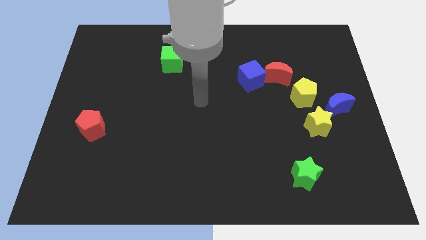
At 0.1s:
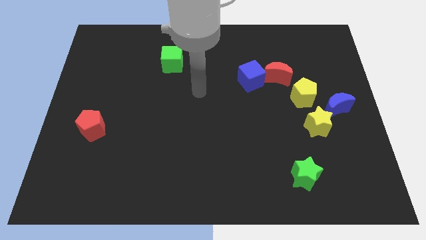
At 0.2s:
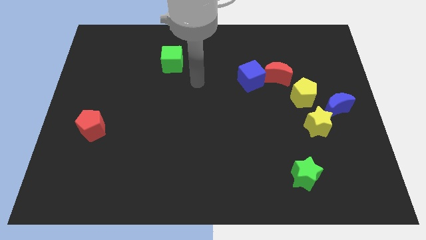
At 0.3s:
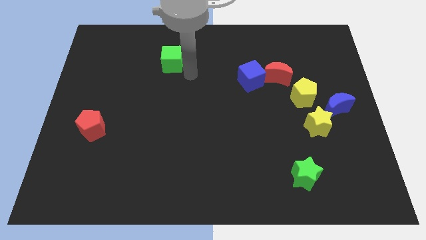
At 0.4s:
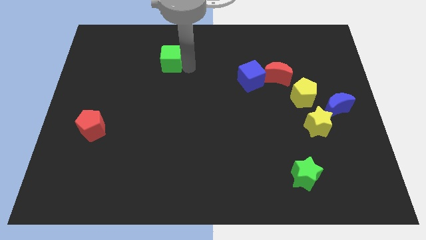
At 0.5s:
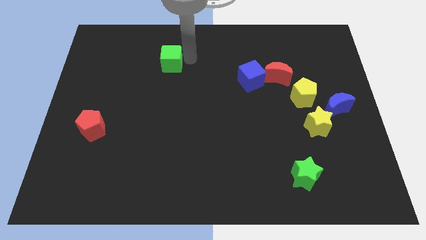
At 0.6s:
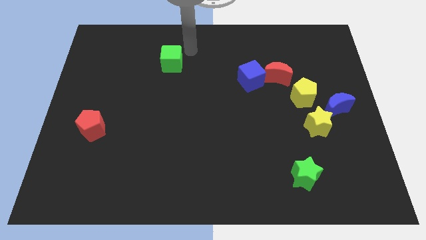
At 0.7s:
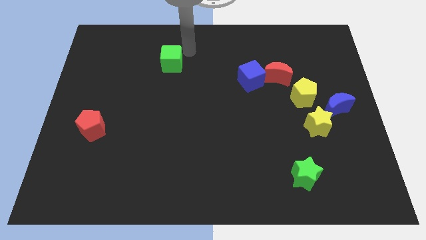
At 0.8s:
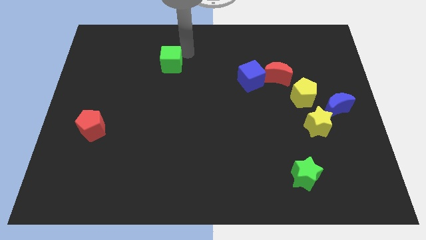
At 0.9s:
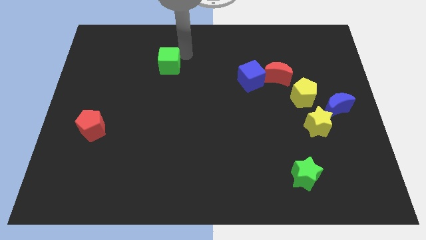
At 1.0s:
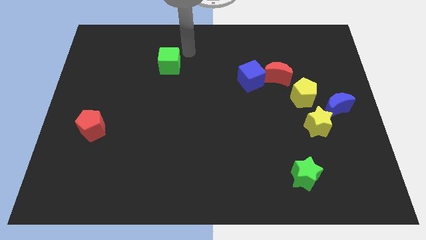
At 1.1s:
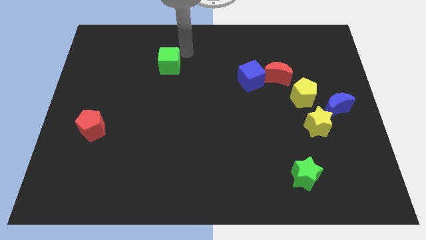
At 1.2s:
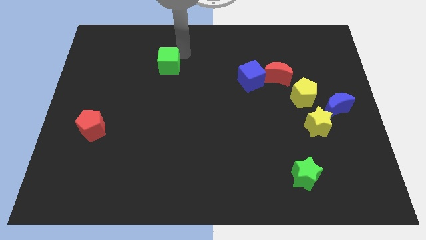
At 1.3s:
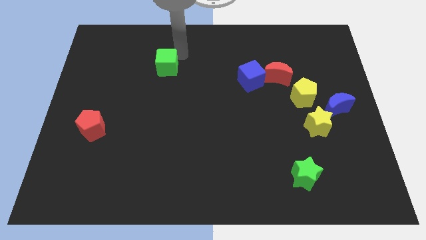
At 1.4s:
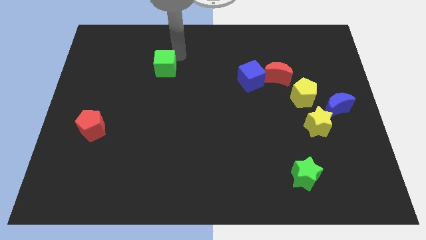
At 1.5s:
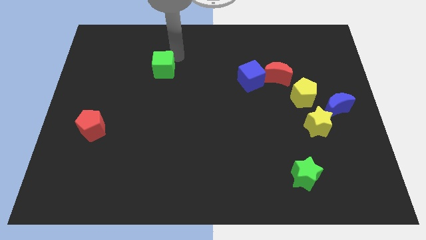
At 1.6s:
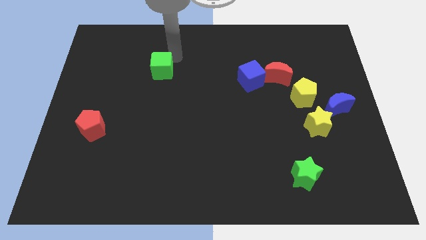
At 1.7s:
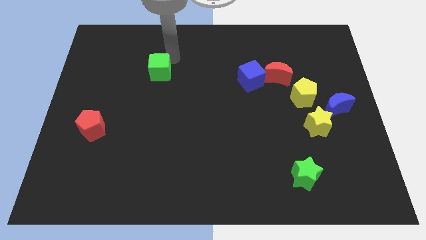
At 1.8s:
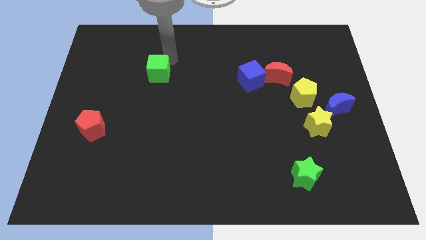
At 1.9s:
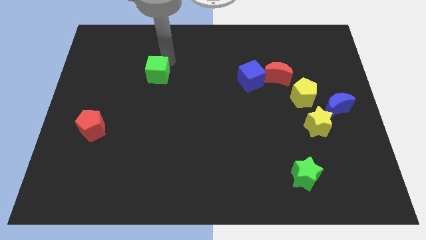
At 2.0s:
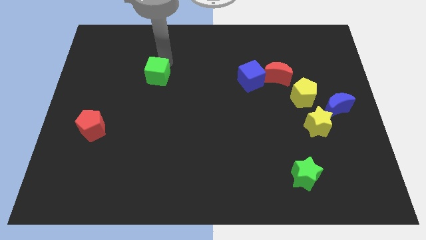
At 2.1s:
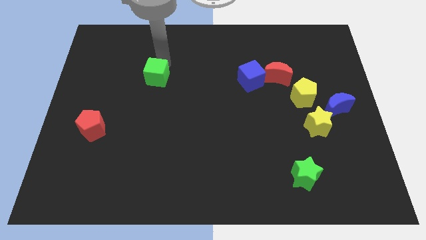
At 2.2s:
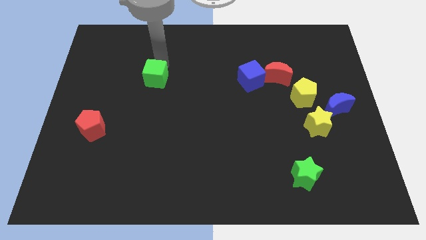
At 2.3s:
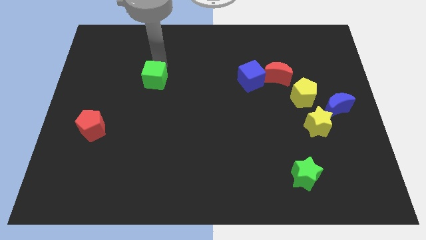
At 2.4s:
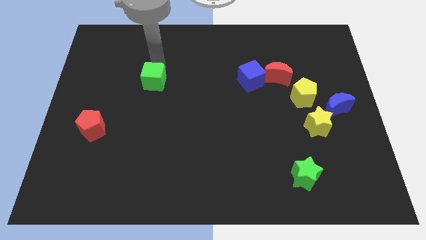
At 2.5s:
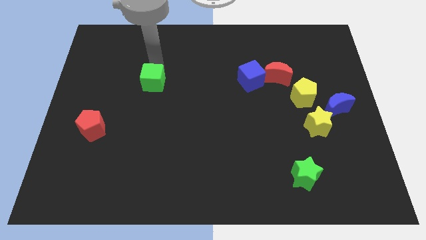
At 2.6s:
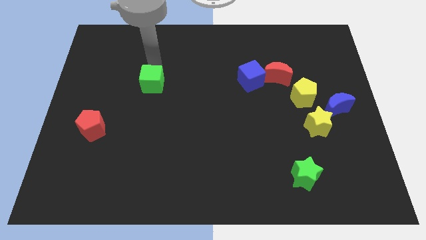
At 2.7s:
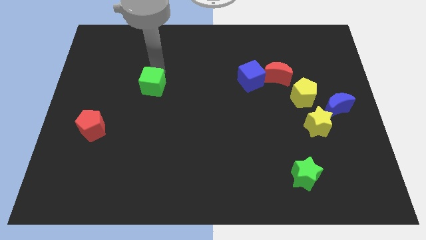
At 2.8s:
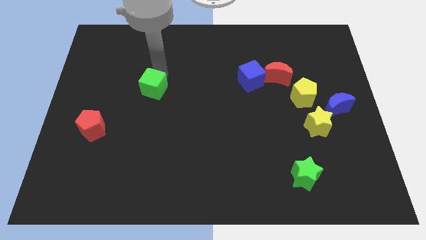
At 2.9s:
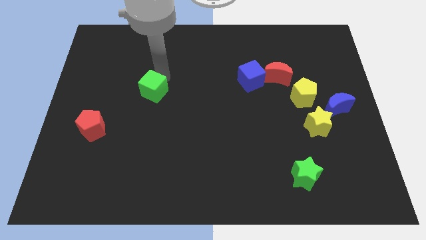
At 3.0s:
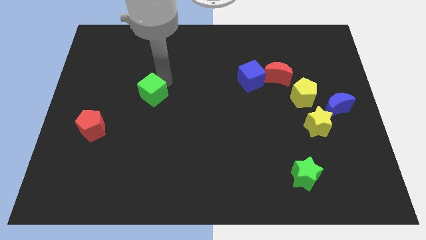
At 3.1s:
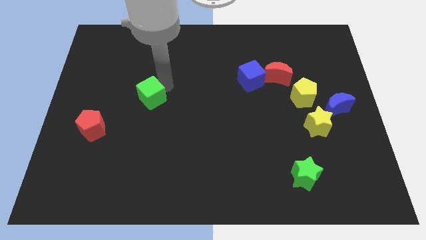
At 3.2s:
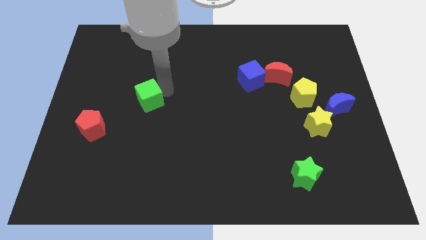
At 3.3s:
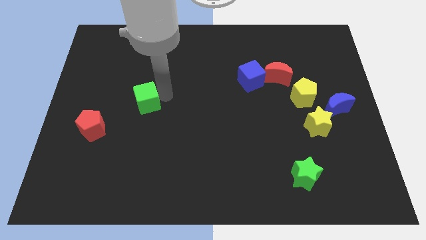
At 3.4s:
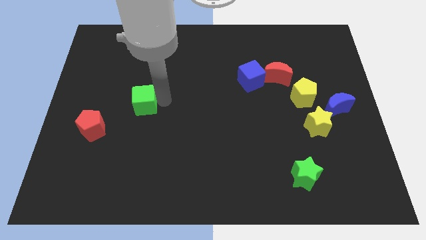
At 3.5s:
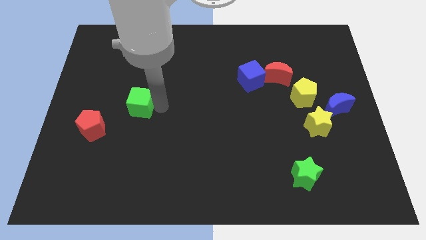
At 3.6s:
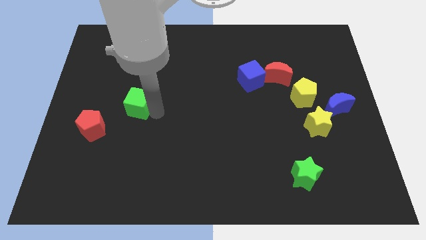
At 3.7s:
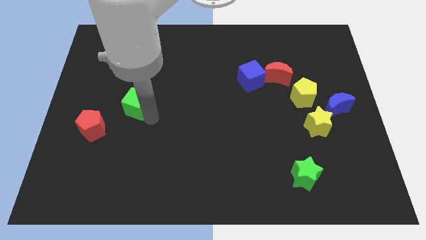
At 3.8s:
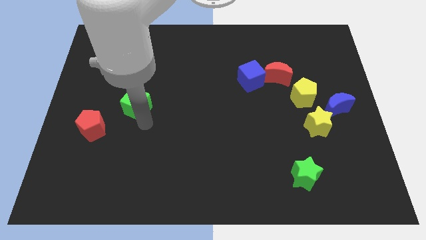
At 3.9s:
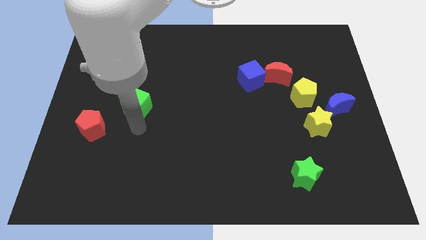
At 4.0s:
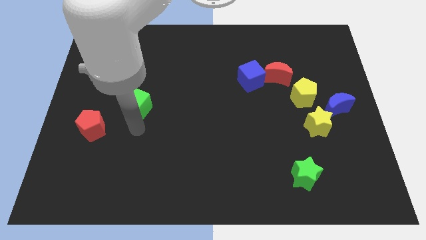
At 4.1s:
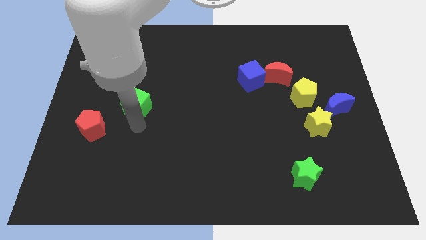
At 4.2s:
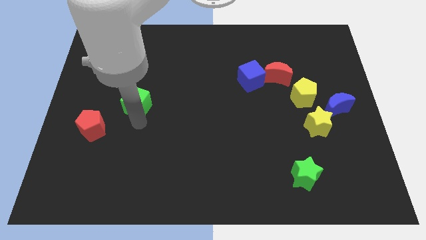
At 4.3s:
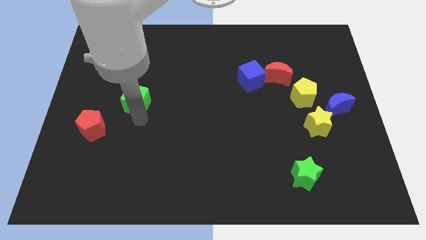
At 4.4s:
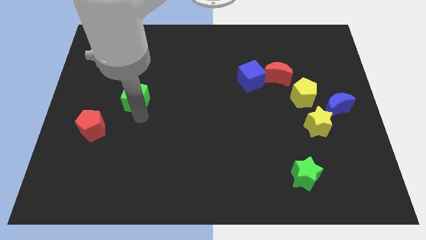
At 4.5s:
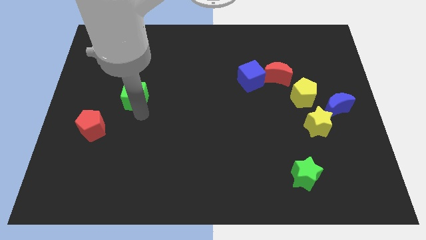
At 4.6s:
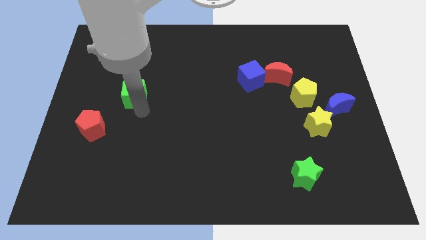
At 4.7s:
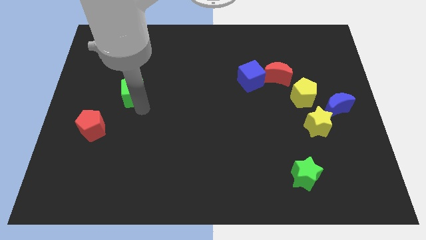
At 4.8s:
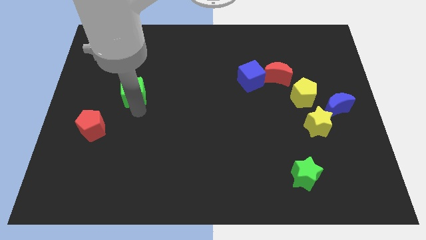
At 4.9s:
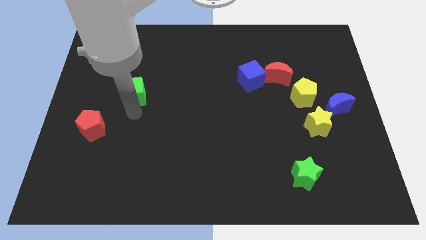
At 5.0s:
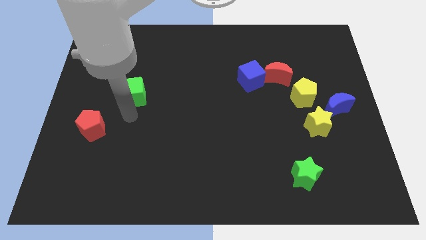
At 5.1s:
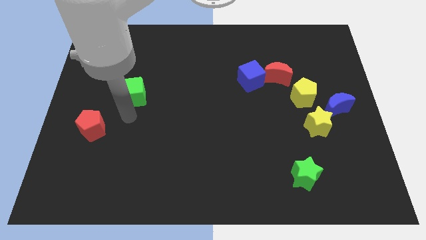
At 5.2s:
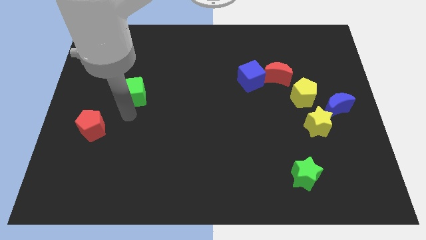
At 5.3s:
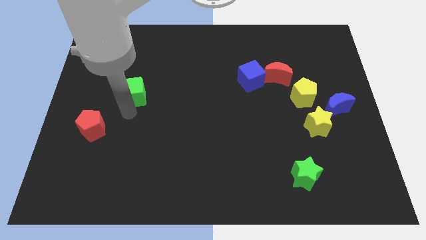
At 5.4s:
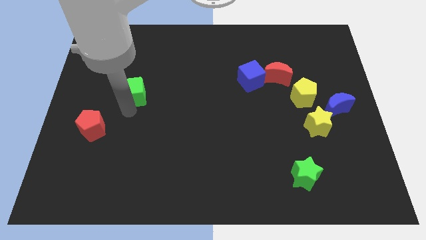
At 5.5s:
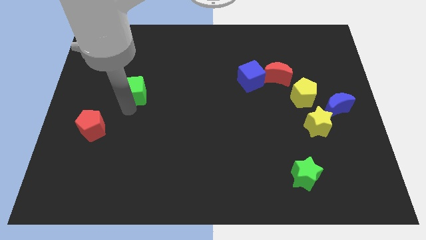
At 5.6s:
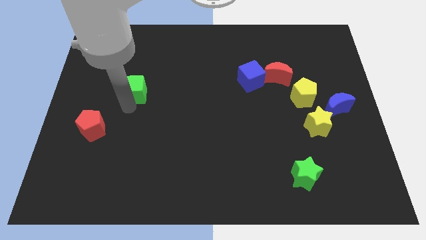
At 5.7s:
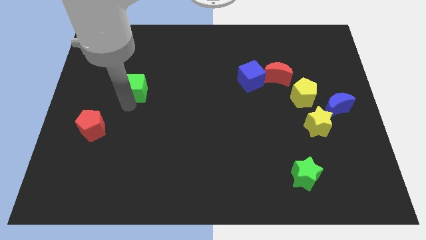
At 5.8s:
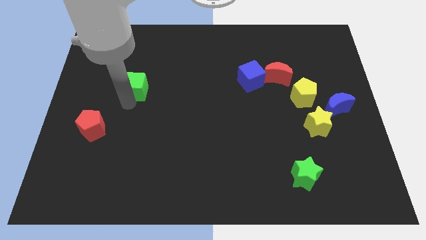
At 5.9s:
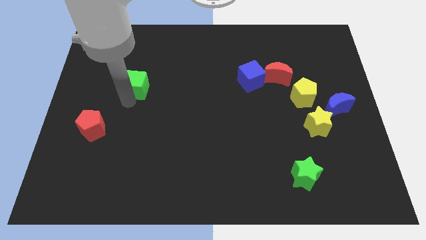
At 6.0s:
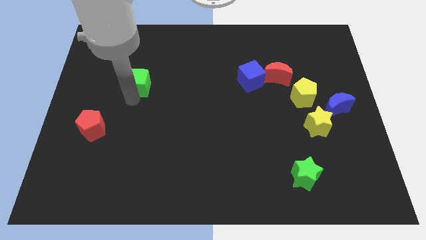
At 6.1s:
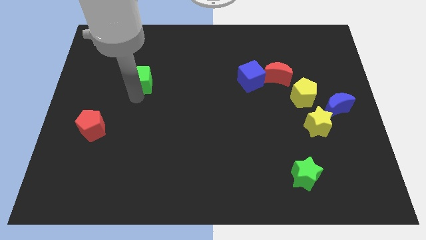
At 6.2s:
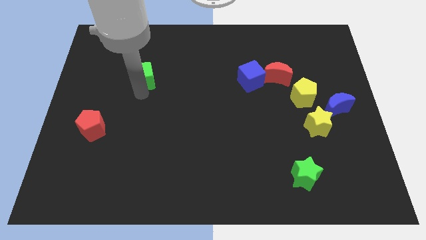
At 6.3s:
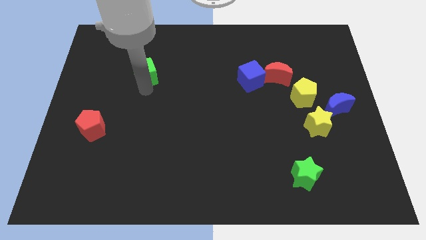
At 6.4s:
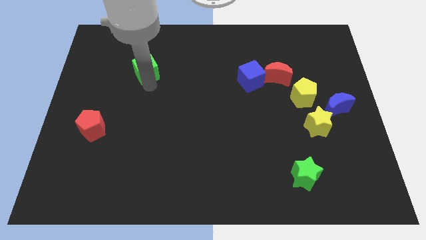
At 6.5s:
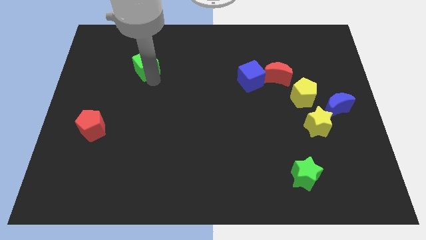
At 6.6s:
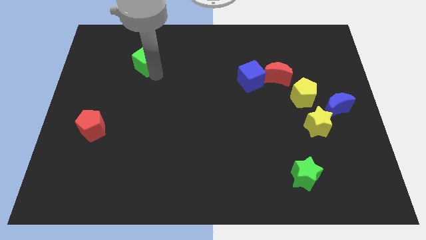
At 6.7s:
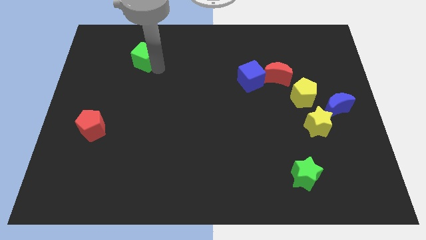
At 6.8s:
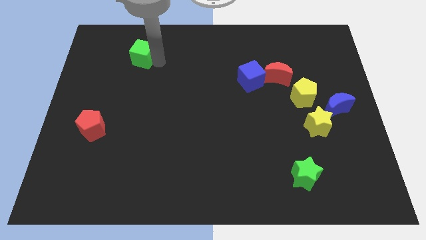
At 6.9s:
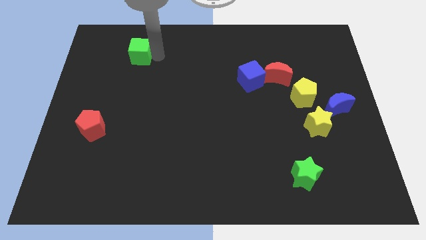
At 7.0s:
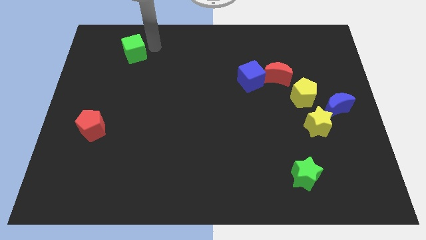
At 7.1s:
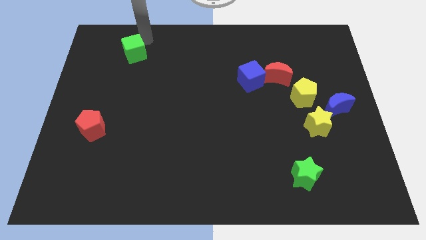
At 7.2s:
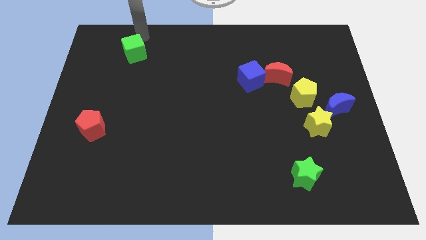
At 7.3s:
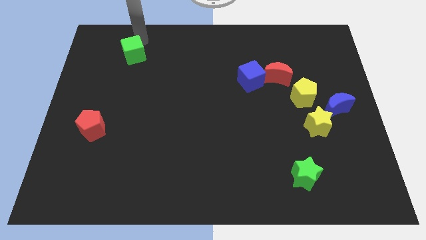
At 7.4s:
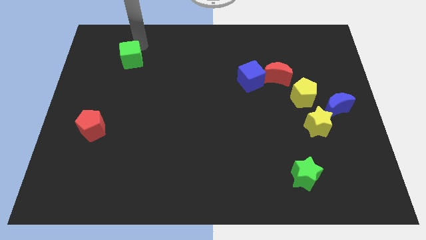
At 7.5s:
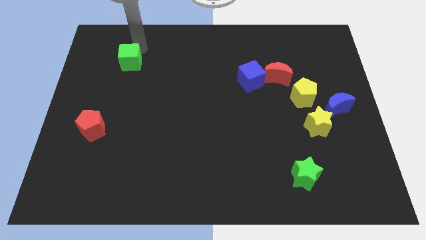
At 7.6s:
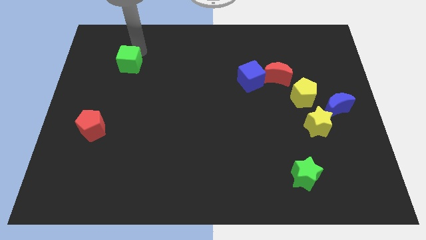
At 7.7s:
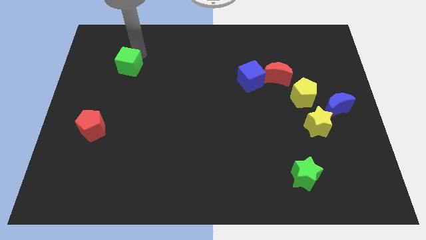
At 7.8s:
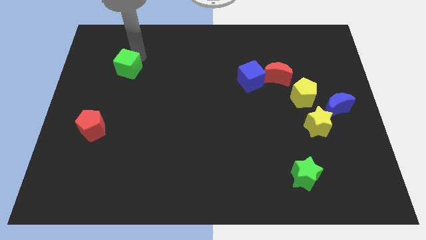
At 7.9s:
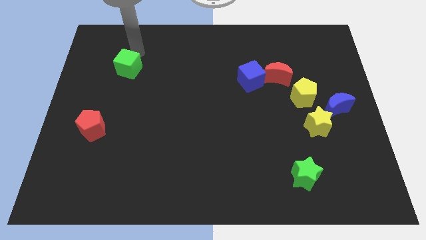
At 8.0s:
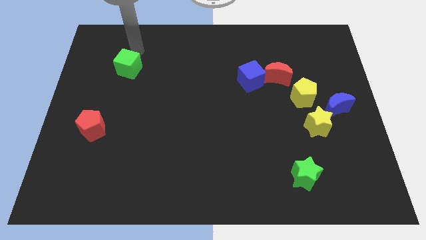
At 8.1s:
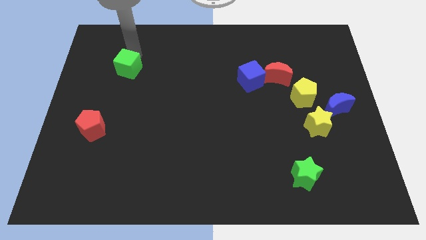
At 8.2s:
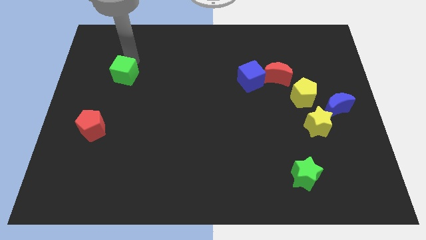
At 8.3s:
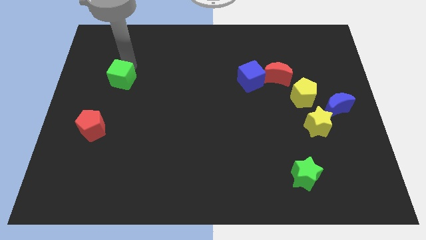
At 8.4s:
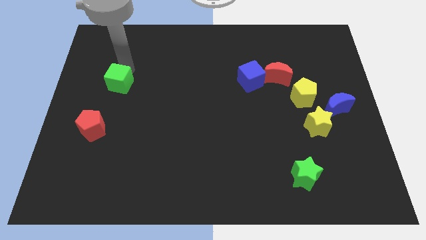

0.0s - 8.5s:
push the green cube to the top side of the red pentagon
